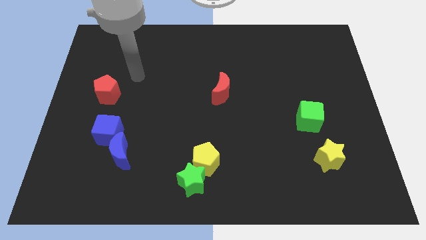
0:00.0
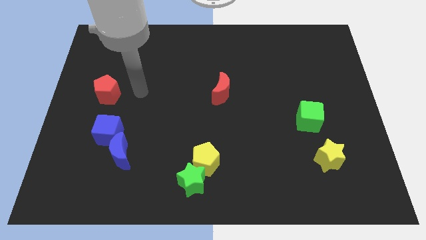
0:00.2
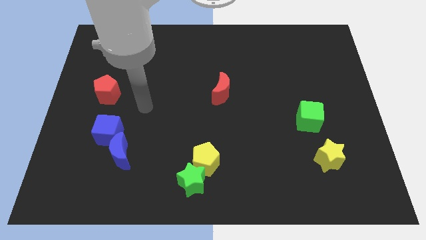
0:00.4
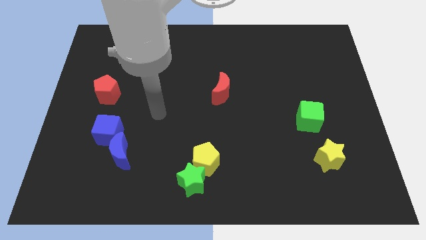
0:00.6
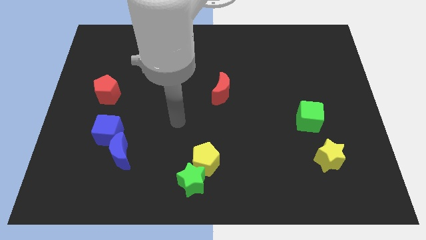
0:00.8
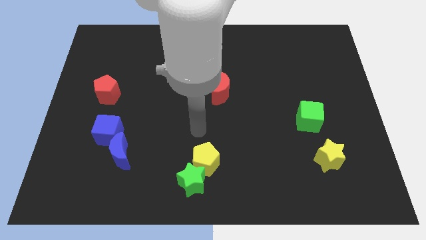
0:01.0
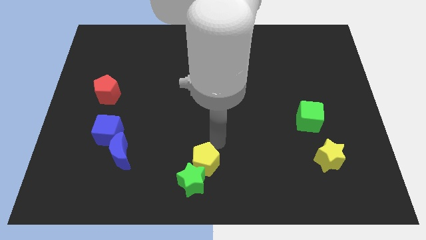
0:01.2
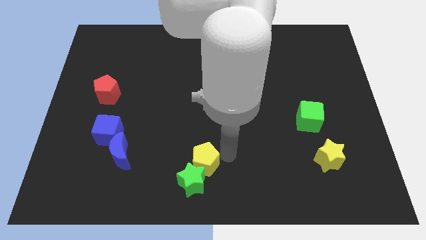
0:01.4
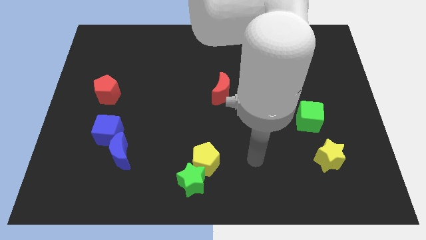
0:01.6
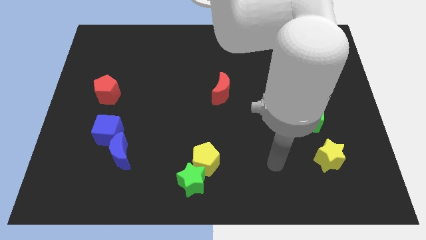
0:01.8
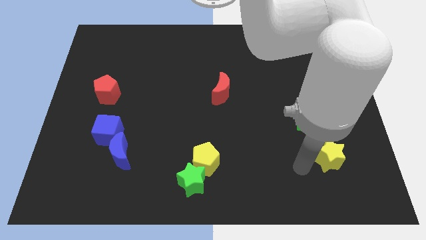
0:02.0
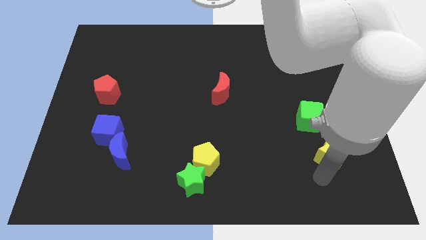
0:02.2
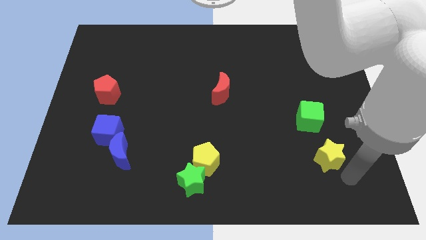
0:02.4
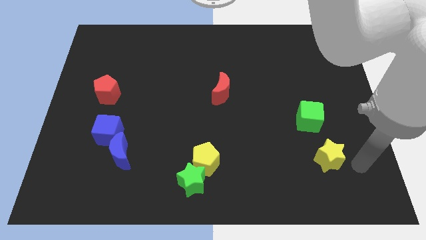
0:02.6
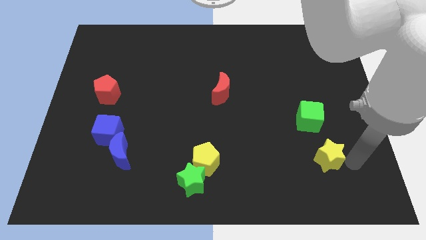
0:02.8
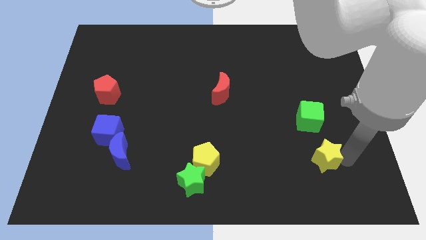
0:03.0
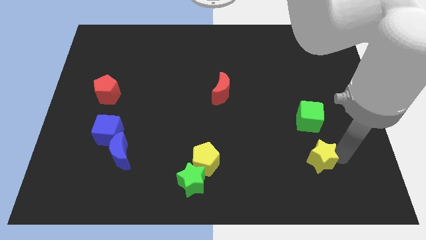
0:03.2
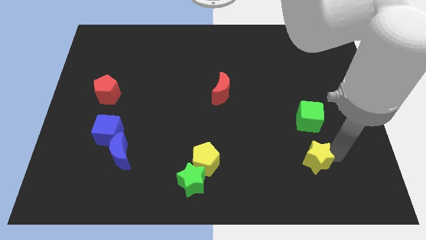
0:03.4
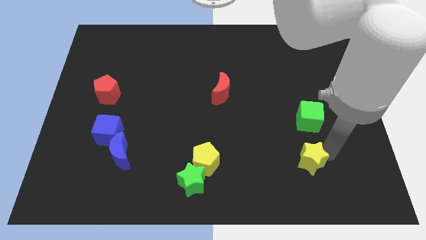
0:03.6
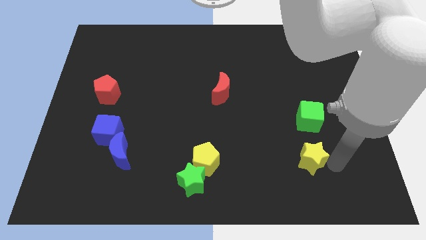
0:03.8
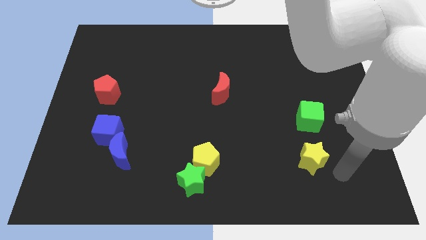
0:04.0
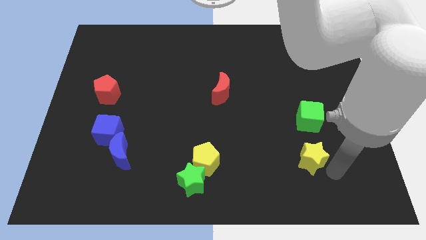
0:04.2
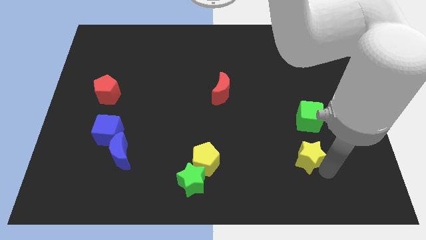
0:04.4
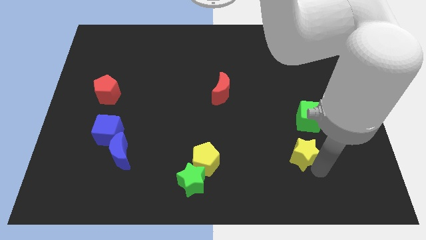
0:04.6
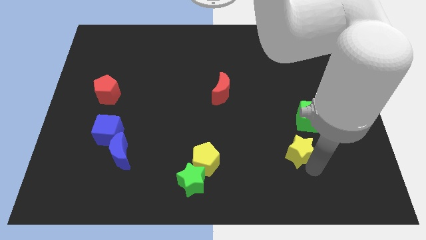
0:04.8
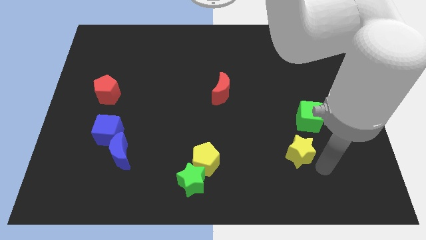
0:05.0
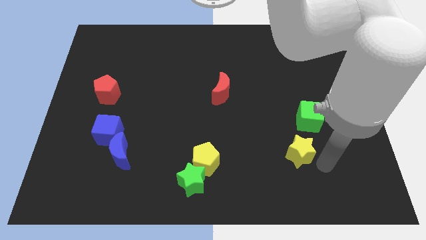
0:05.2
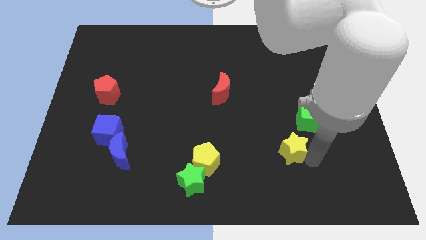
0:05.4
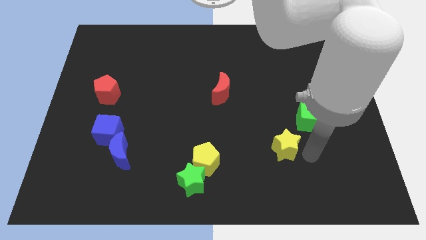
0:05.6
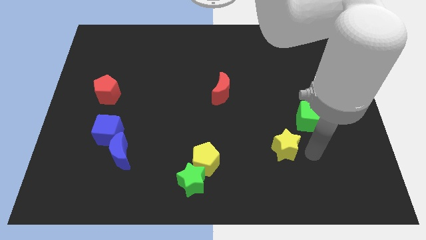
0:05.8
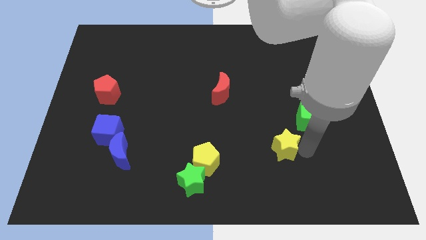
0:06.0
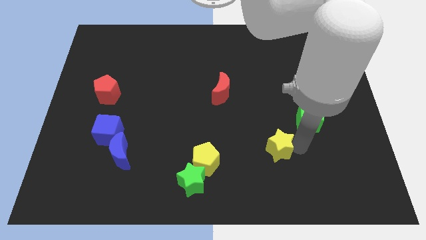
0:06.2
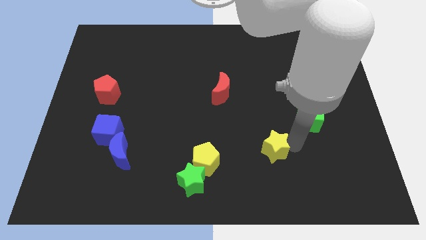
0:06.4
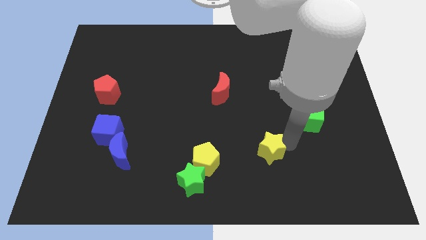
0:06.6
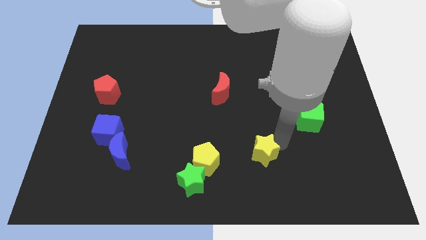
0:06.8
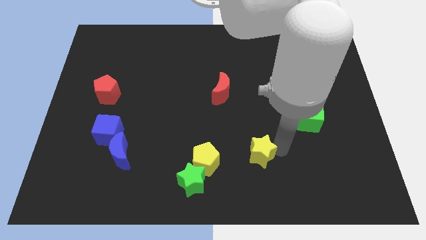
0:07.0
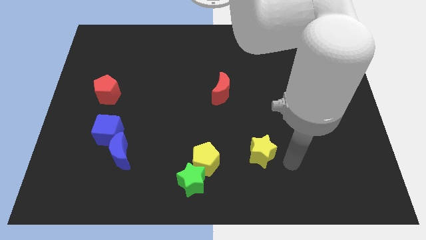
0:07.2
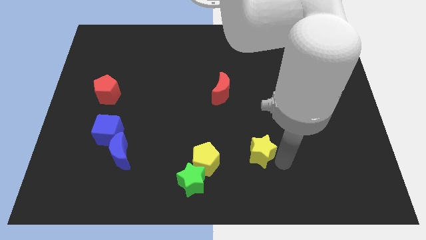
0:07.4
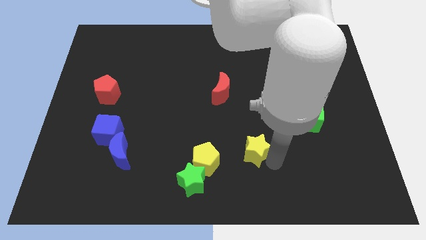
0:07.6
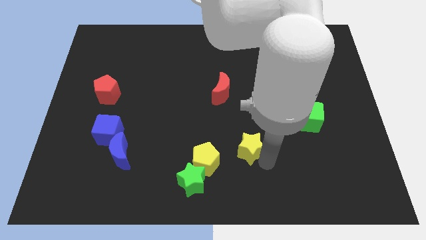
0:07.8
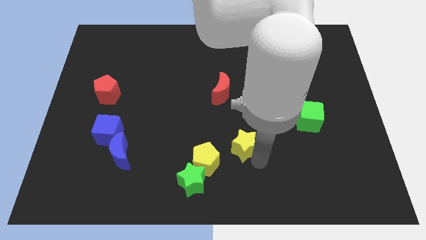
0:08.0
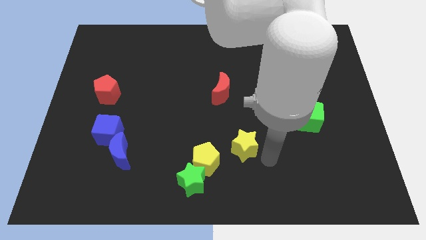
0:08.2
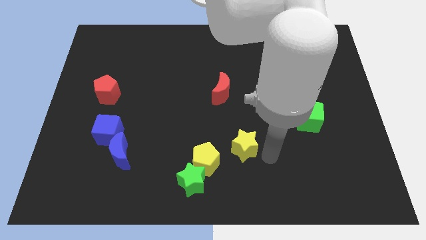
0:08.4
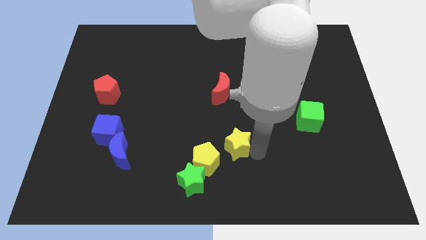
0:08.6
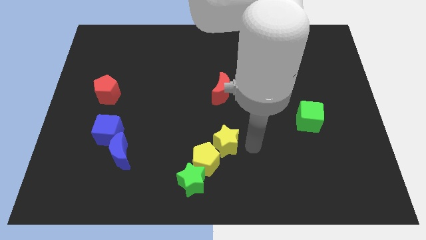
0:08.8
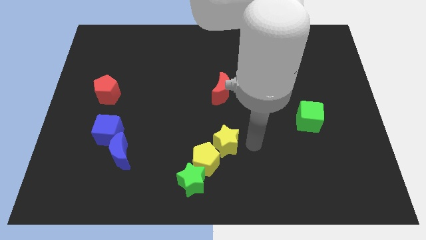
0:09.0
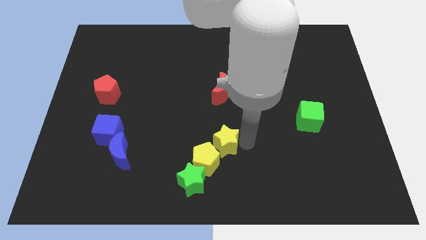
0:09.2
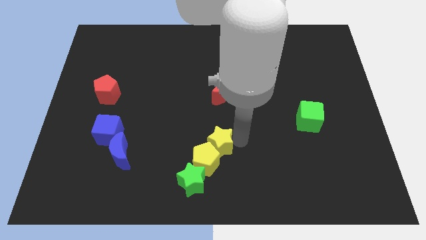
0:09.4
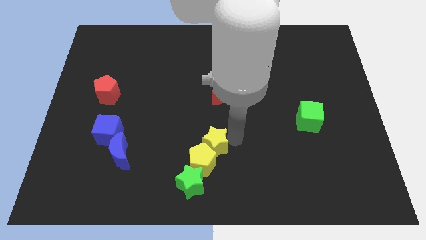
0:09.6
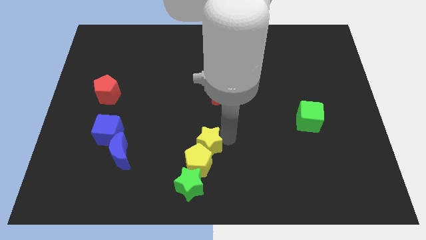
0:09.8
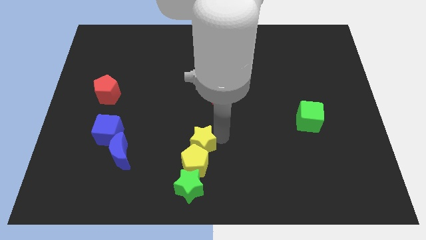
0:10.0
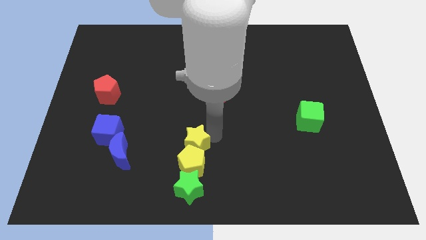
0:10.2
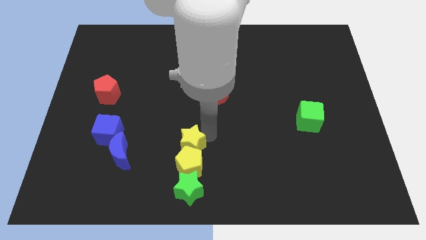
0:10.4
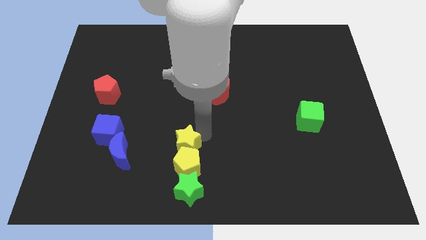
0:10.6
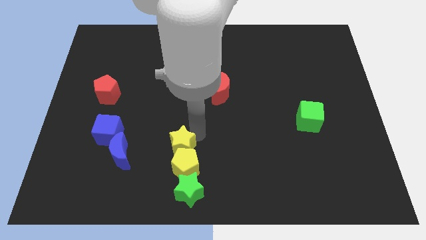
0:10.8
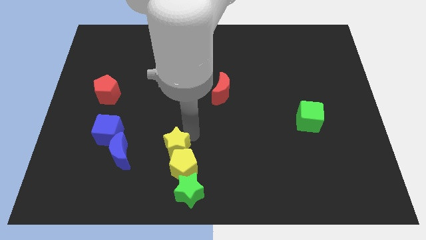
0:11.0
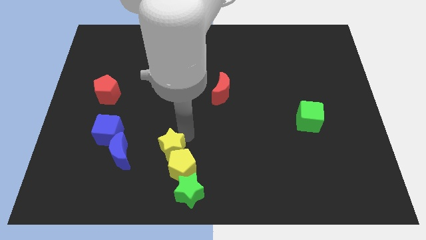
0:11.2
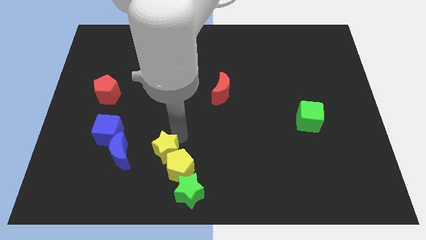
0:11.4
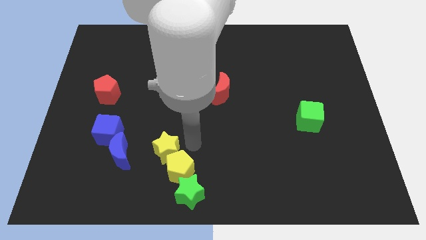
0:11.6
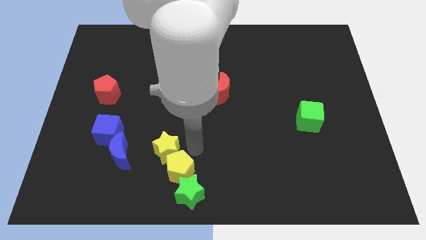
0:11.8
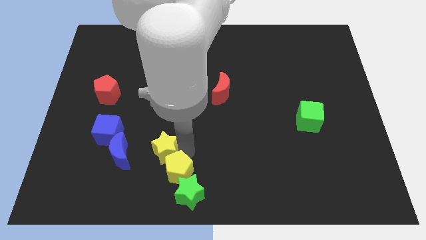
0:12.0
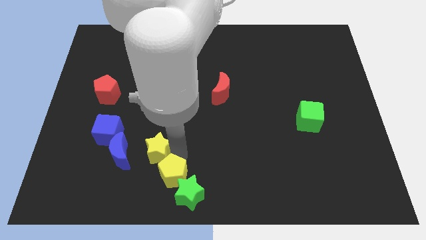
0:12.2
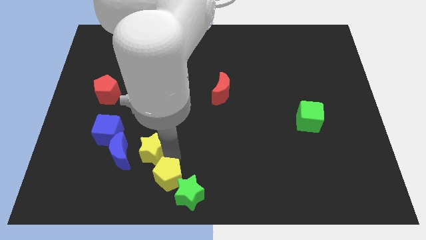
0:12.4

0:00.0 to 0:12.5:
move the yellow star to the bottom right side of the blue cube

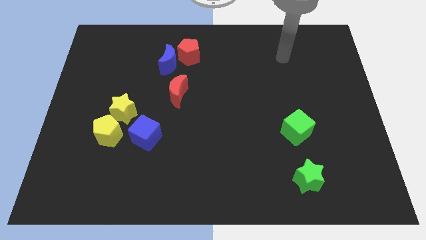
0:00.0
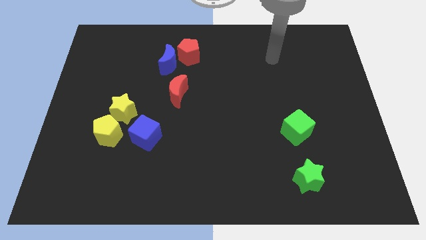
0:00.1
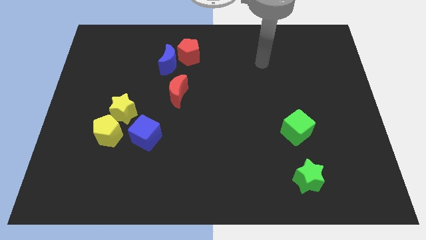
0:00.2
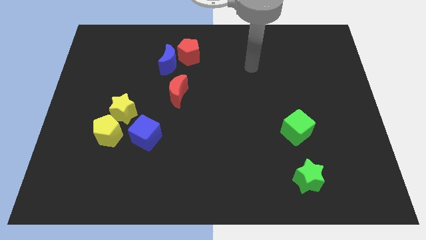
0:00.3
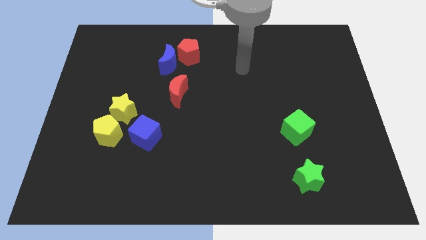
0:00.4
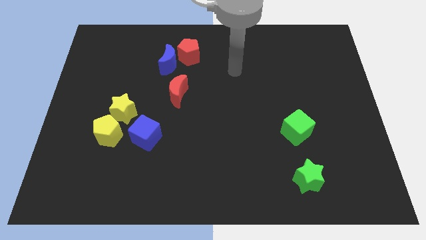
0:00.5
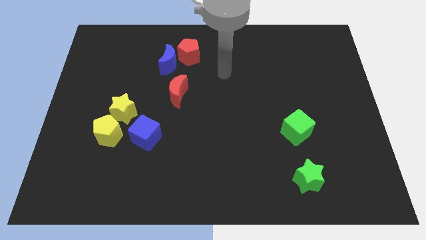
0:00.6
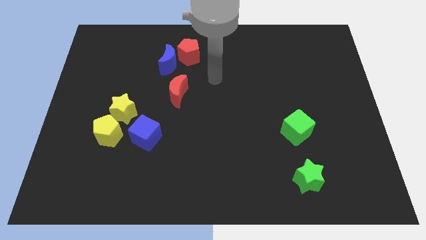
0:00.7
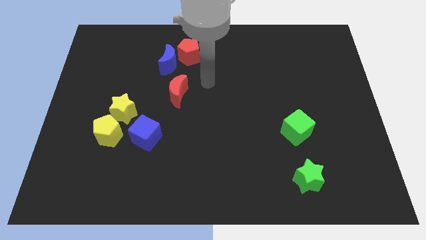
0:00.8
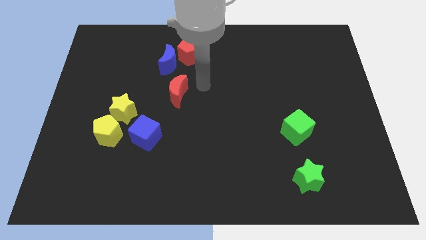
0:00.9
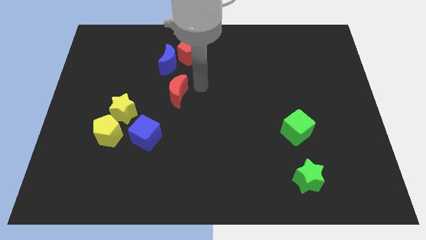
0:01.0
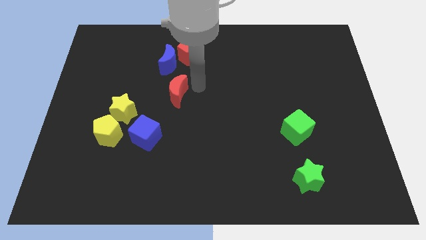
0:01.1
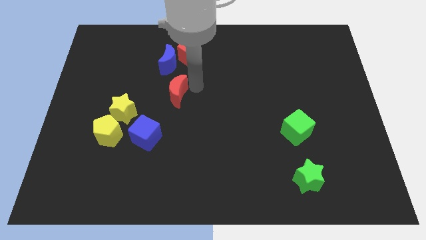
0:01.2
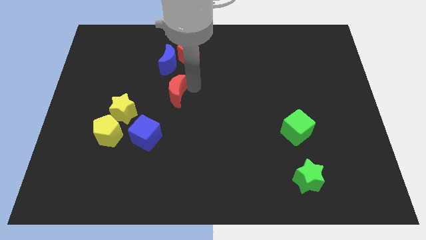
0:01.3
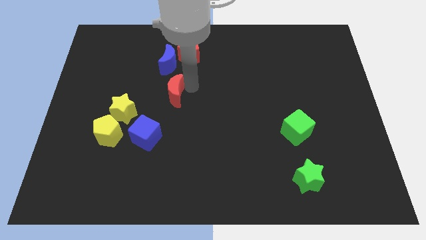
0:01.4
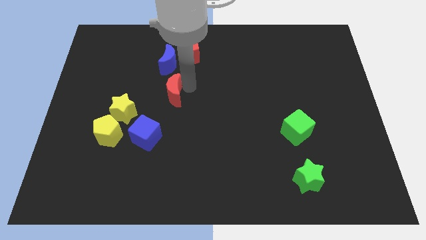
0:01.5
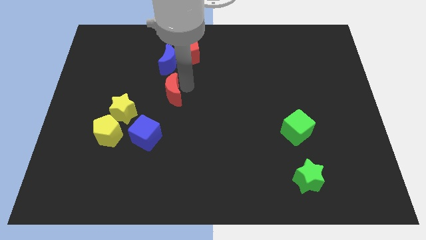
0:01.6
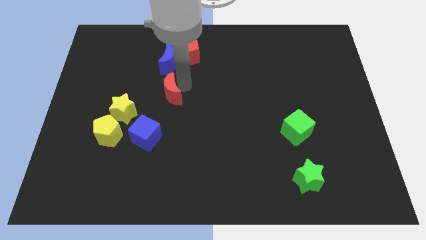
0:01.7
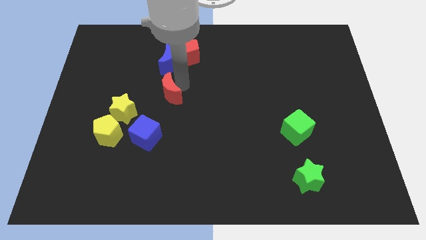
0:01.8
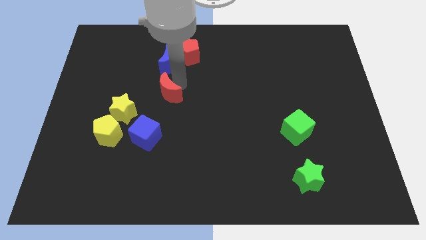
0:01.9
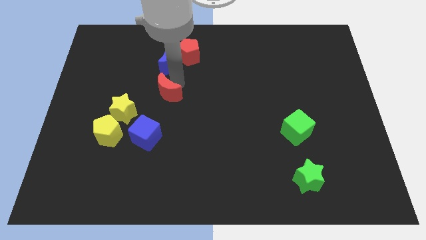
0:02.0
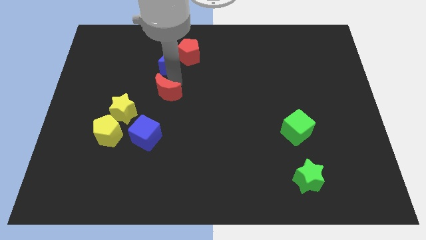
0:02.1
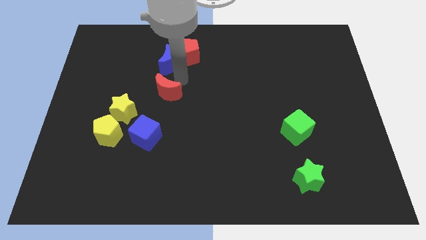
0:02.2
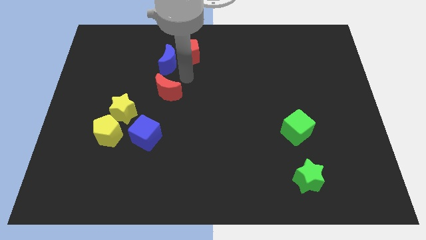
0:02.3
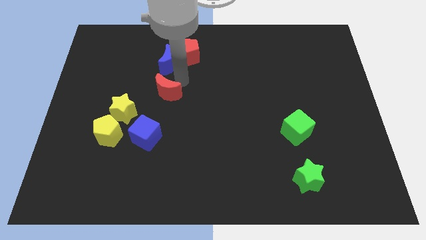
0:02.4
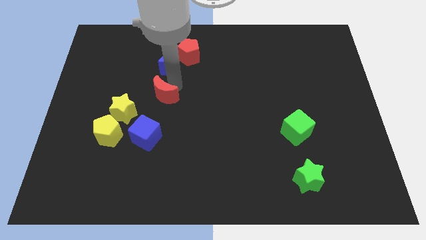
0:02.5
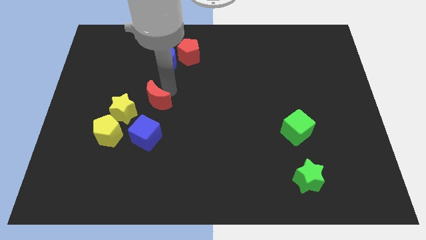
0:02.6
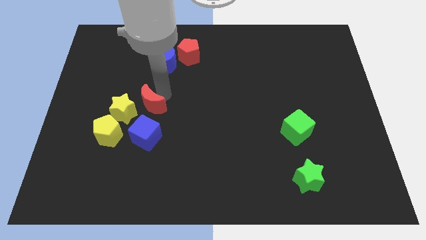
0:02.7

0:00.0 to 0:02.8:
put the red moon to the top right side of the yellow pentagon
